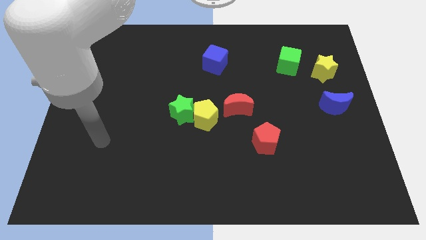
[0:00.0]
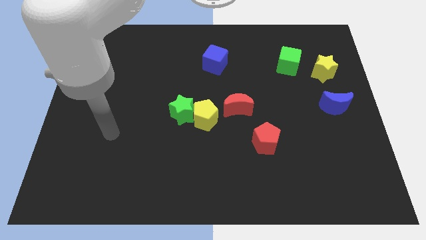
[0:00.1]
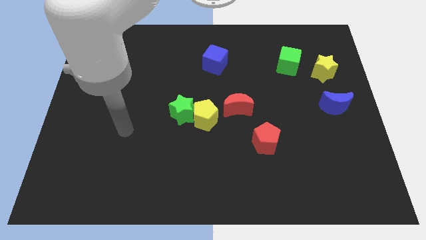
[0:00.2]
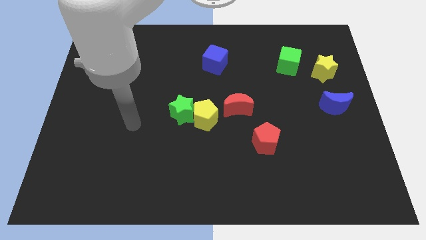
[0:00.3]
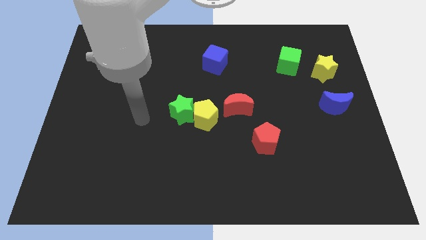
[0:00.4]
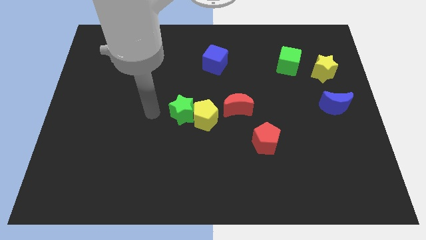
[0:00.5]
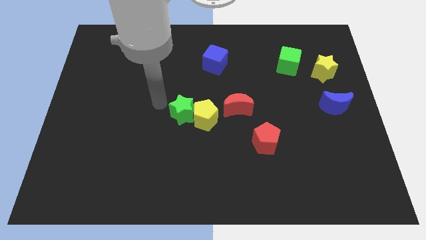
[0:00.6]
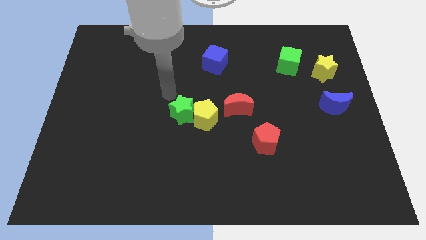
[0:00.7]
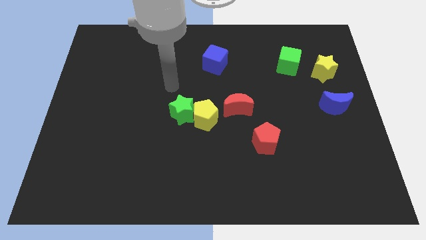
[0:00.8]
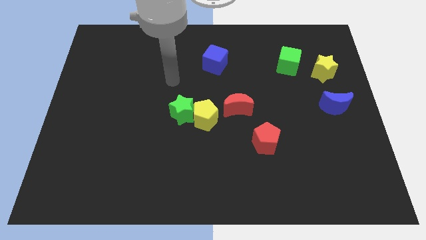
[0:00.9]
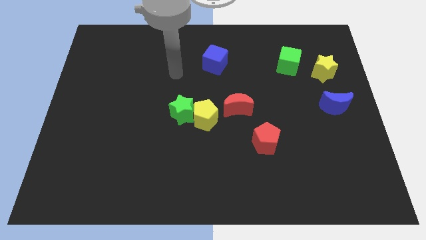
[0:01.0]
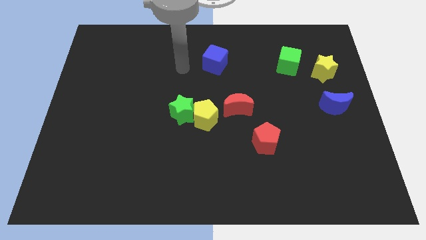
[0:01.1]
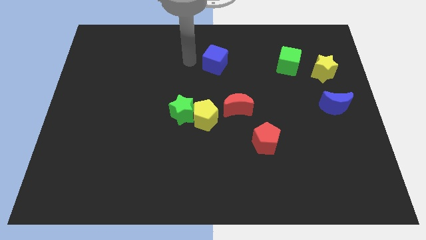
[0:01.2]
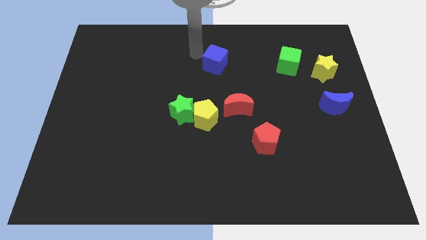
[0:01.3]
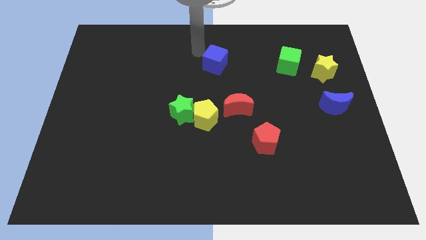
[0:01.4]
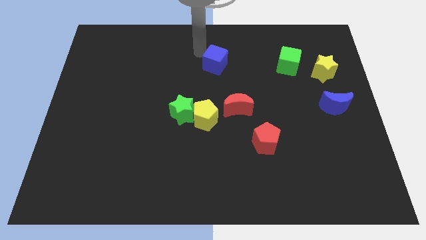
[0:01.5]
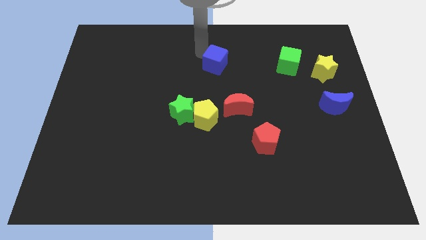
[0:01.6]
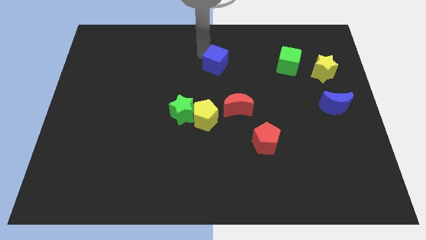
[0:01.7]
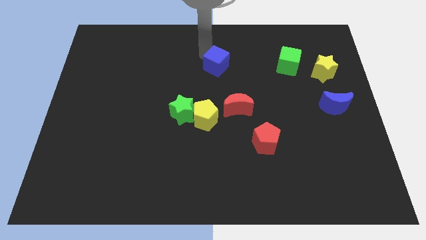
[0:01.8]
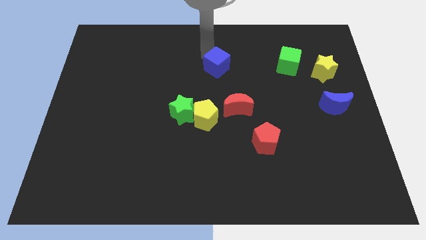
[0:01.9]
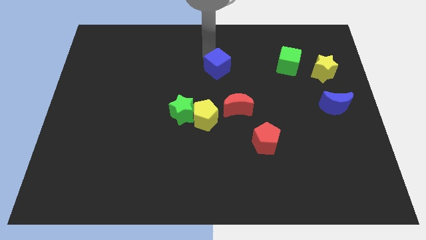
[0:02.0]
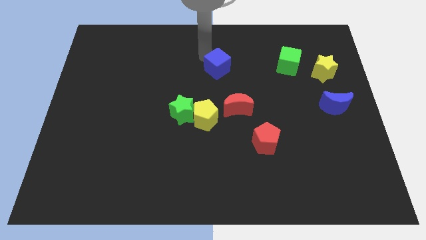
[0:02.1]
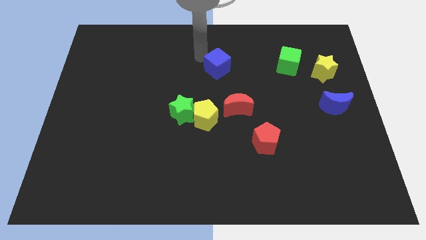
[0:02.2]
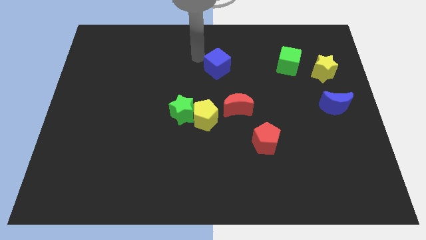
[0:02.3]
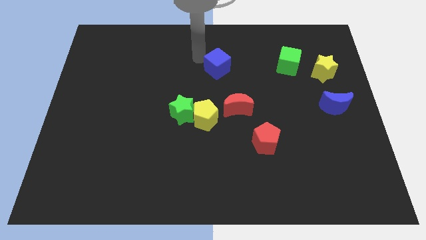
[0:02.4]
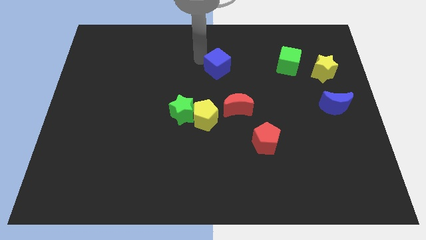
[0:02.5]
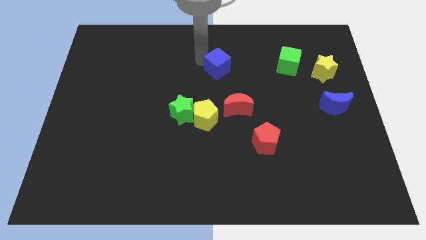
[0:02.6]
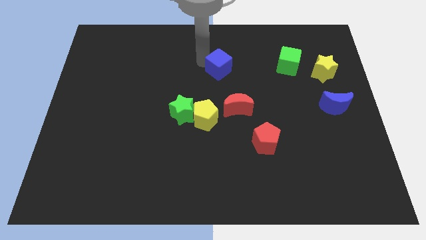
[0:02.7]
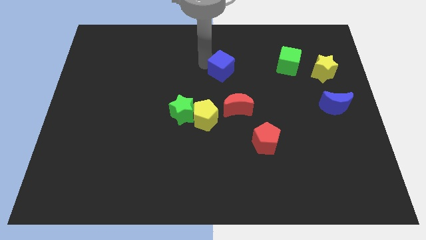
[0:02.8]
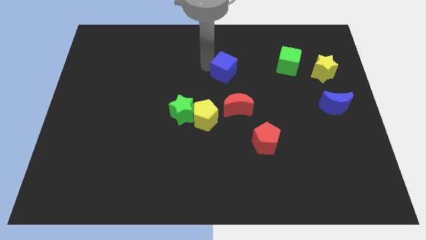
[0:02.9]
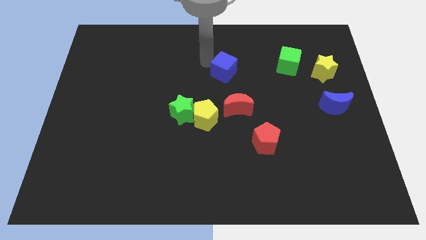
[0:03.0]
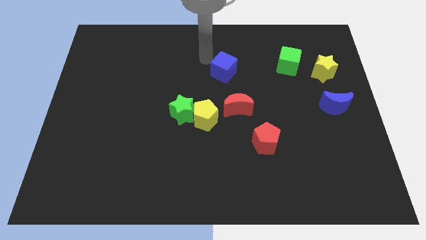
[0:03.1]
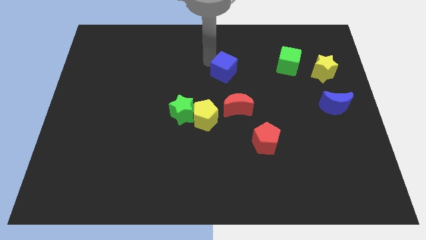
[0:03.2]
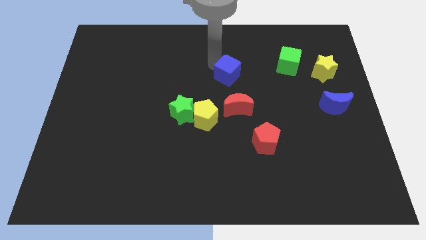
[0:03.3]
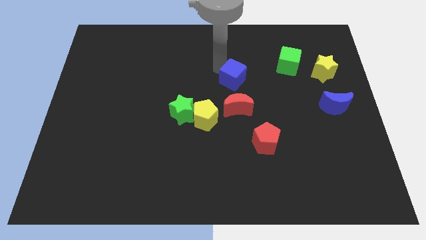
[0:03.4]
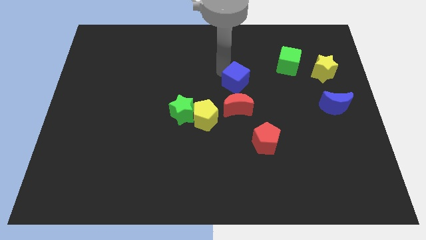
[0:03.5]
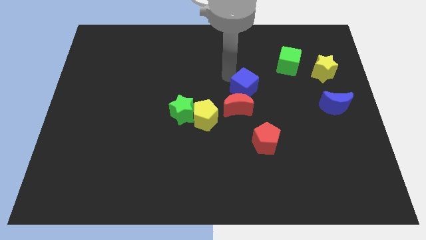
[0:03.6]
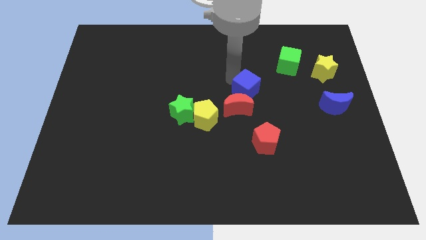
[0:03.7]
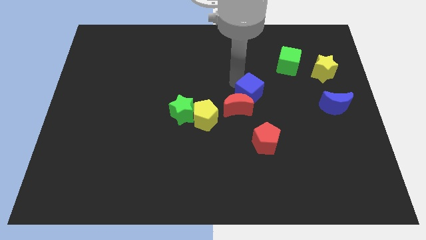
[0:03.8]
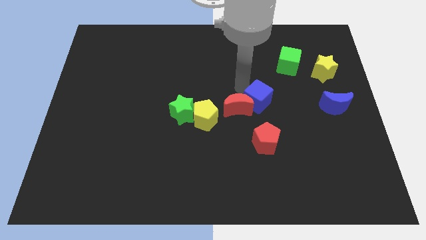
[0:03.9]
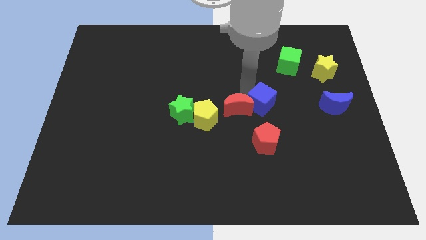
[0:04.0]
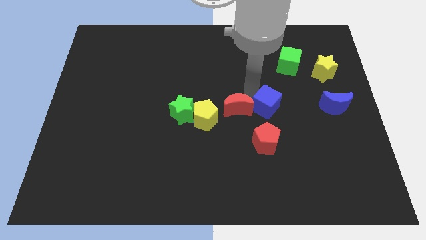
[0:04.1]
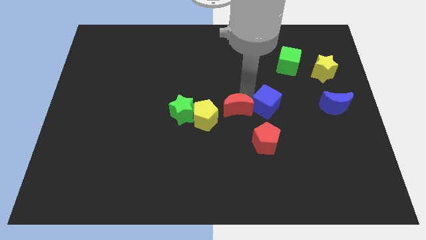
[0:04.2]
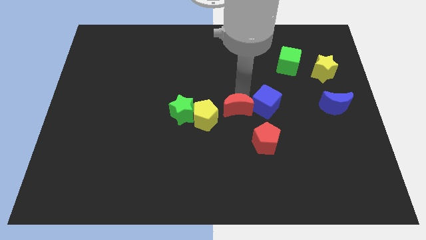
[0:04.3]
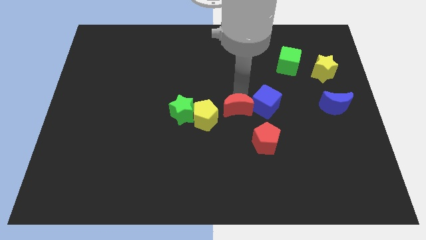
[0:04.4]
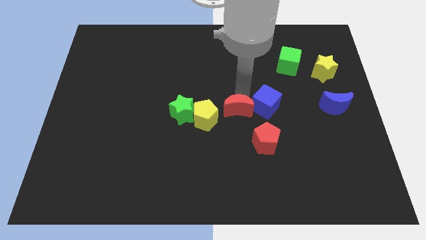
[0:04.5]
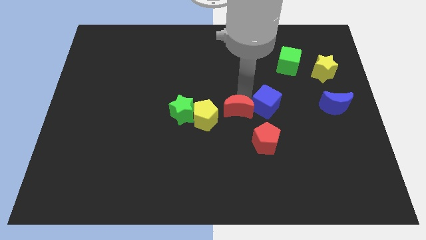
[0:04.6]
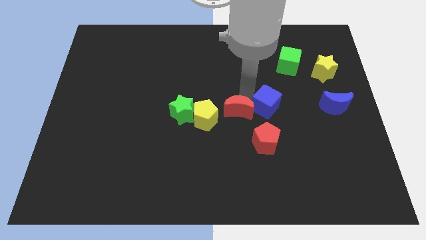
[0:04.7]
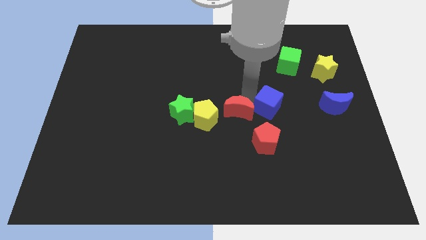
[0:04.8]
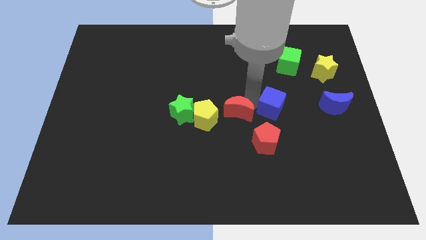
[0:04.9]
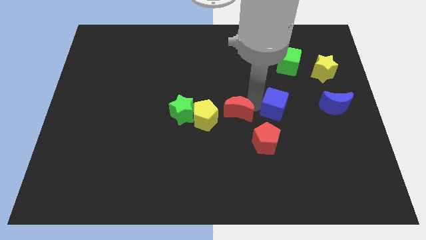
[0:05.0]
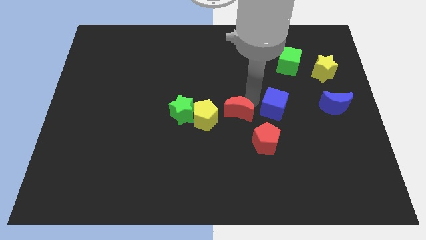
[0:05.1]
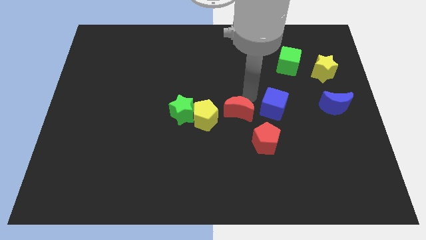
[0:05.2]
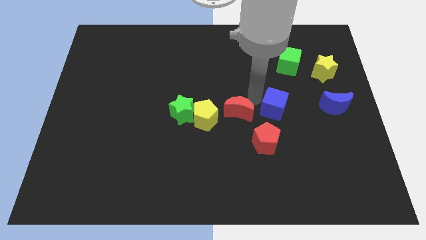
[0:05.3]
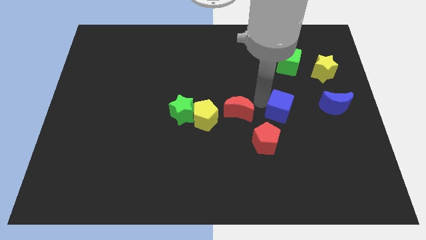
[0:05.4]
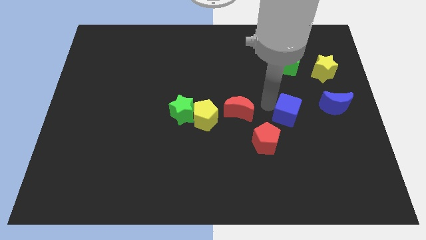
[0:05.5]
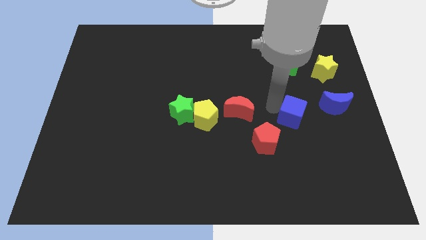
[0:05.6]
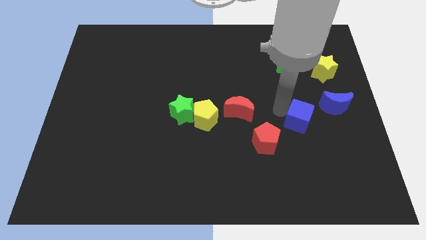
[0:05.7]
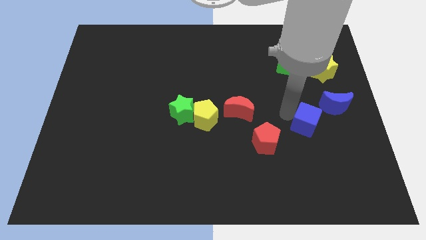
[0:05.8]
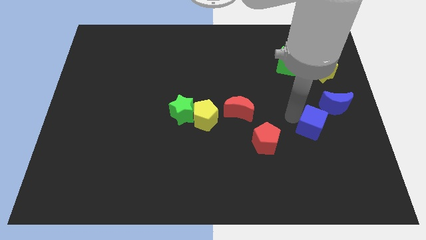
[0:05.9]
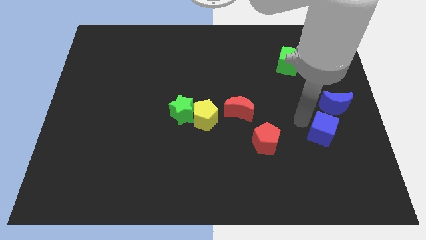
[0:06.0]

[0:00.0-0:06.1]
put the blue cube below the blue moon
